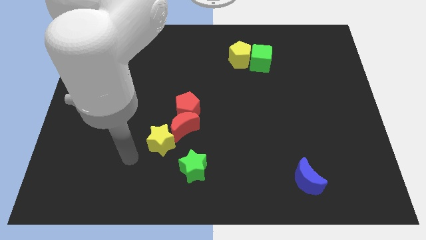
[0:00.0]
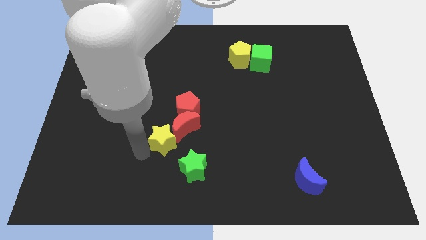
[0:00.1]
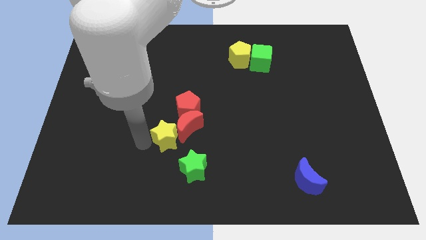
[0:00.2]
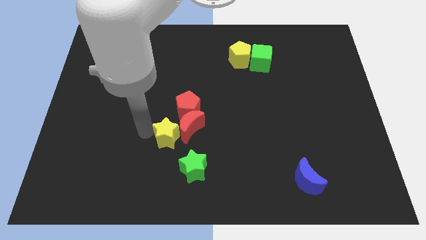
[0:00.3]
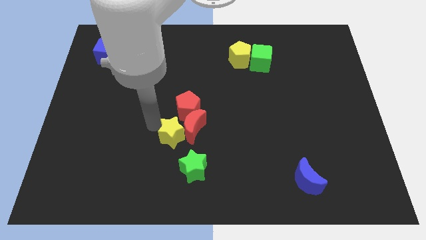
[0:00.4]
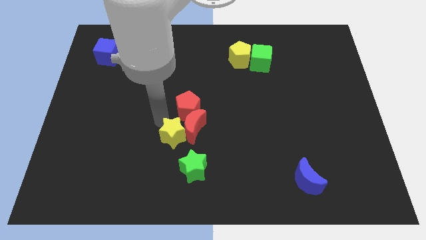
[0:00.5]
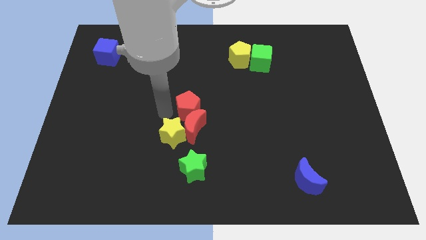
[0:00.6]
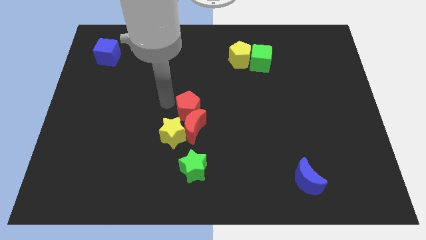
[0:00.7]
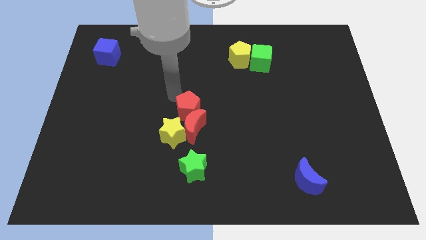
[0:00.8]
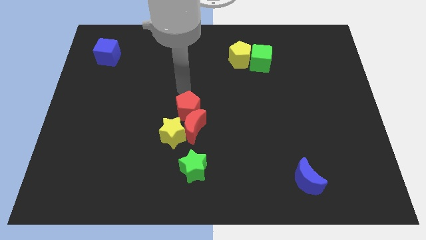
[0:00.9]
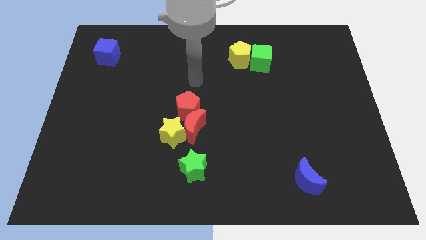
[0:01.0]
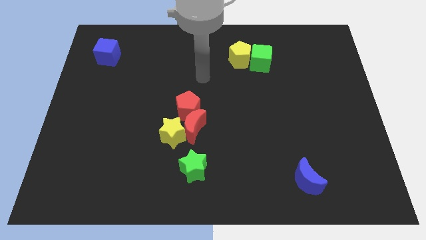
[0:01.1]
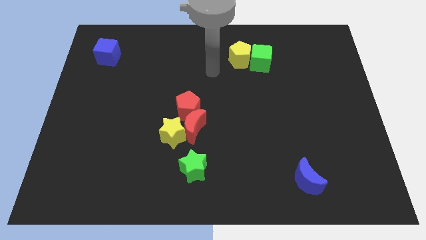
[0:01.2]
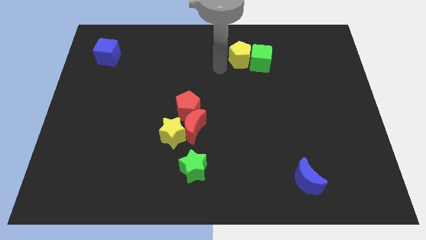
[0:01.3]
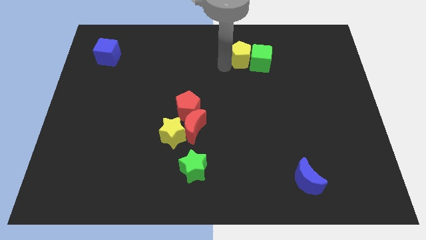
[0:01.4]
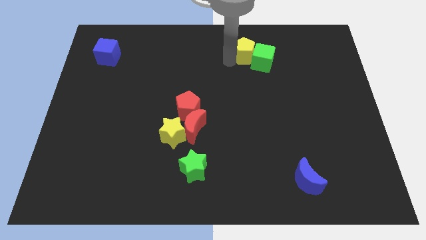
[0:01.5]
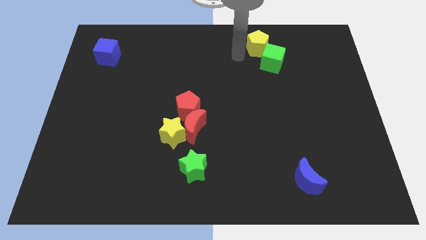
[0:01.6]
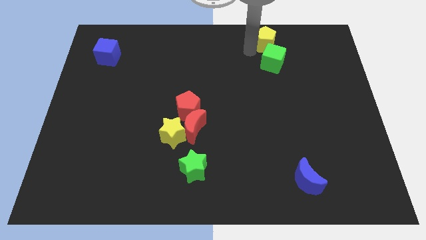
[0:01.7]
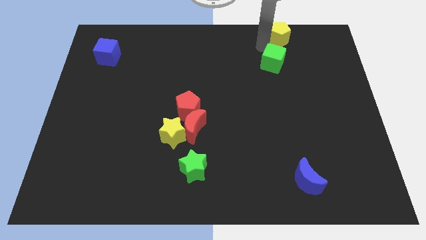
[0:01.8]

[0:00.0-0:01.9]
separate the green cube from the yellow pentagon

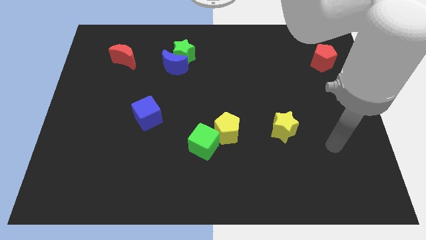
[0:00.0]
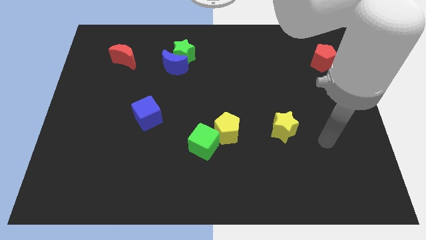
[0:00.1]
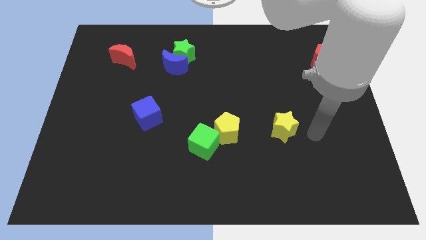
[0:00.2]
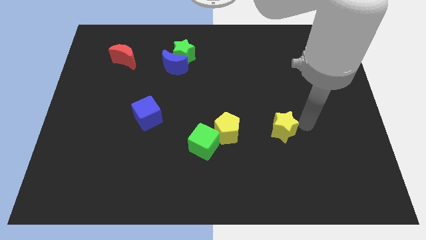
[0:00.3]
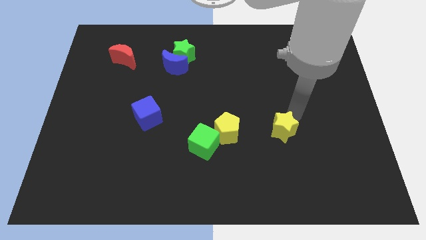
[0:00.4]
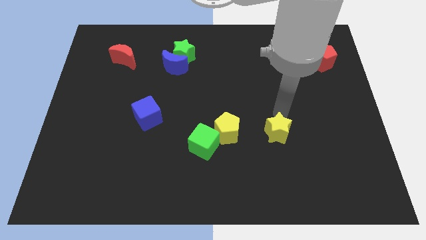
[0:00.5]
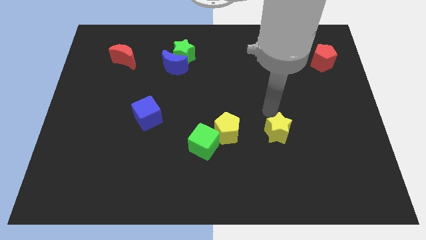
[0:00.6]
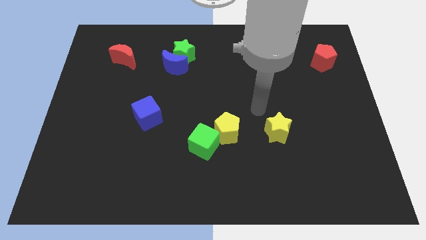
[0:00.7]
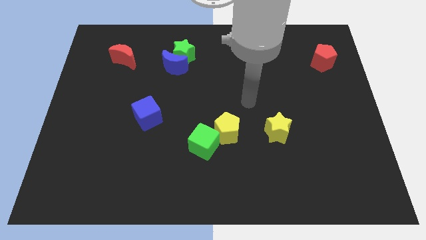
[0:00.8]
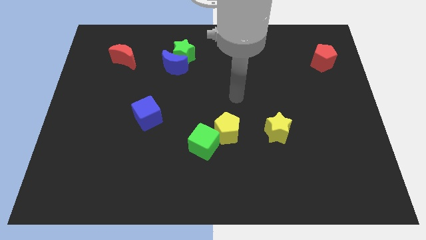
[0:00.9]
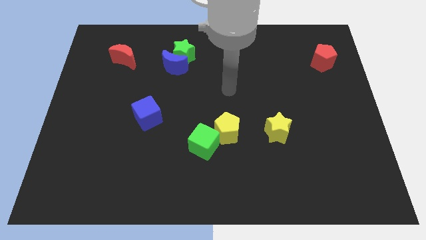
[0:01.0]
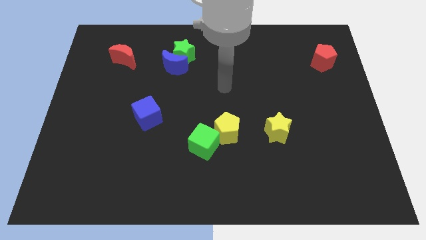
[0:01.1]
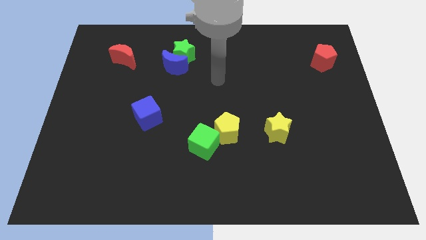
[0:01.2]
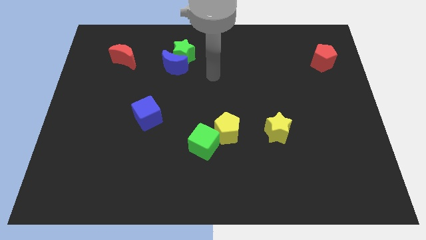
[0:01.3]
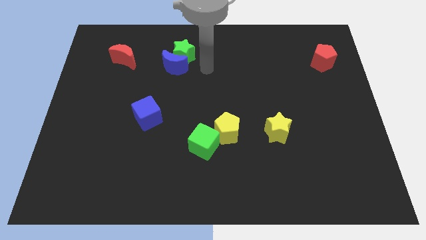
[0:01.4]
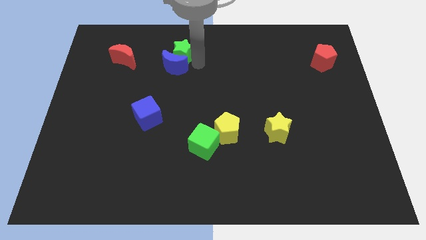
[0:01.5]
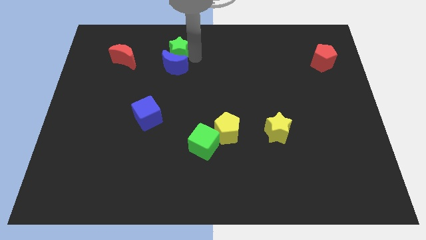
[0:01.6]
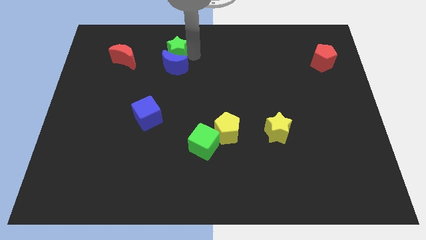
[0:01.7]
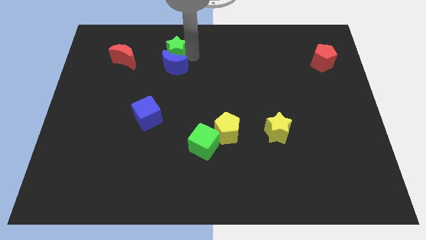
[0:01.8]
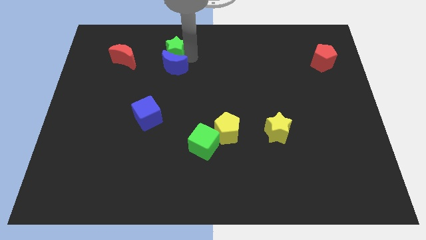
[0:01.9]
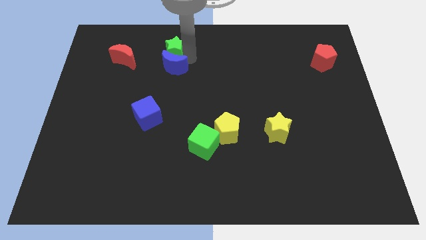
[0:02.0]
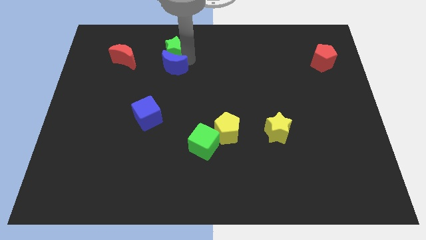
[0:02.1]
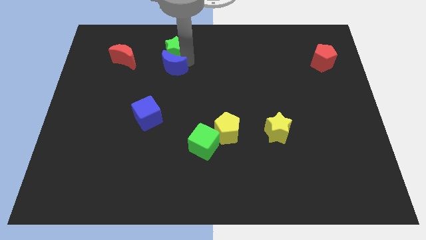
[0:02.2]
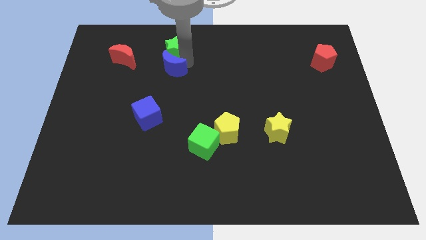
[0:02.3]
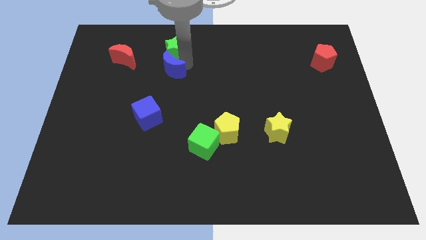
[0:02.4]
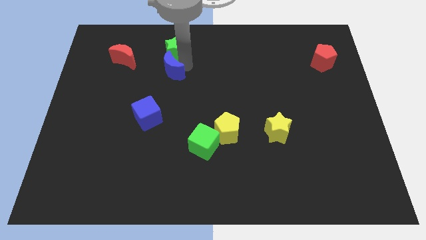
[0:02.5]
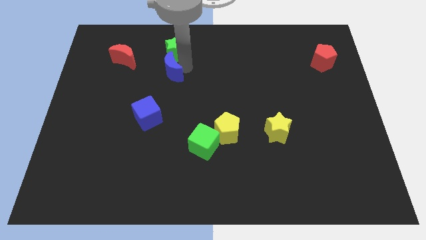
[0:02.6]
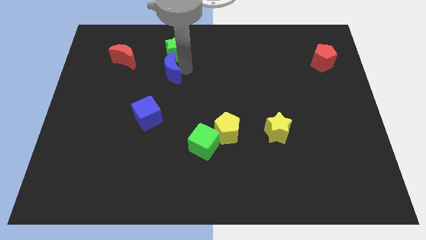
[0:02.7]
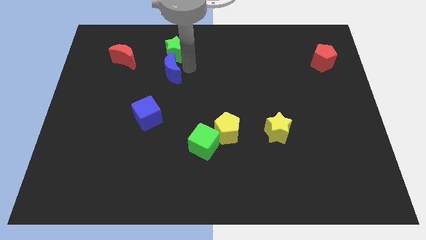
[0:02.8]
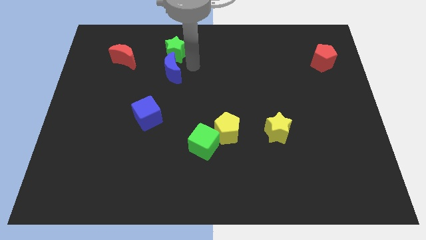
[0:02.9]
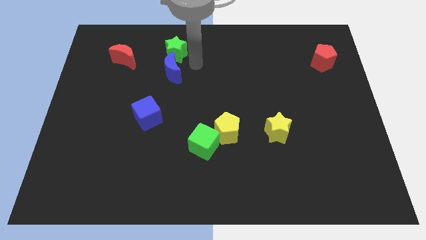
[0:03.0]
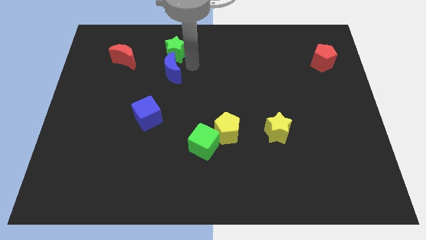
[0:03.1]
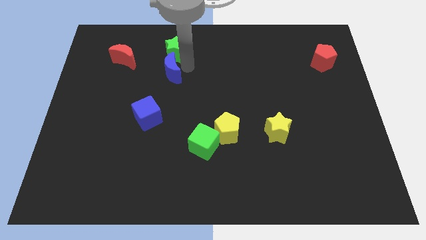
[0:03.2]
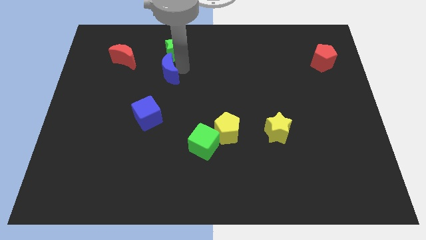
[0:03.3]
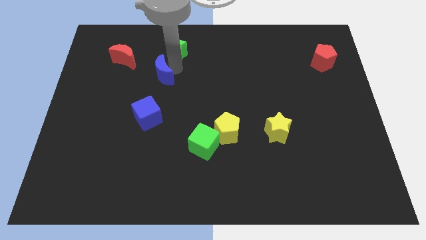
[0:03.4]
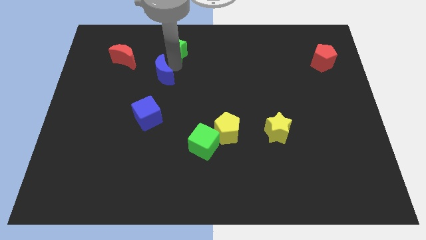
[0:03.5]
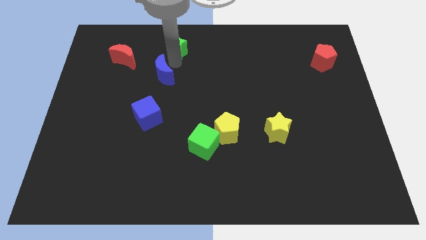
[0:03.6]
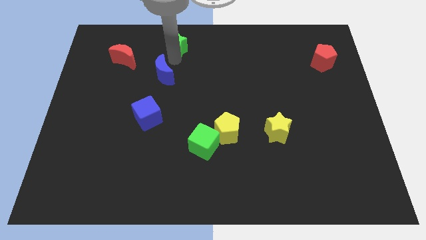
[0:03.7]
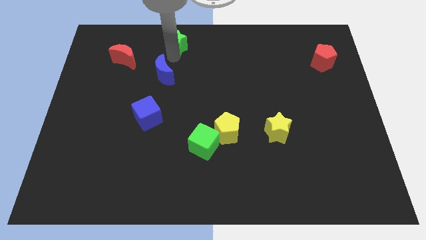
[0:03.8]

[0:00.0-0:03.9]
separate the blue moon from the green star

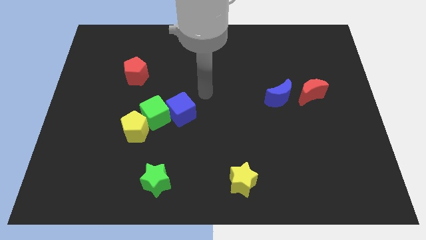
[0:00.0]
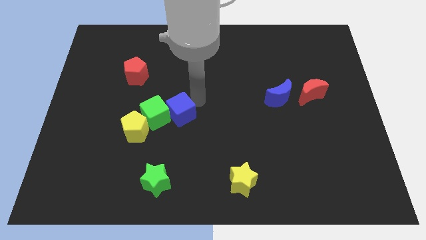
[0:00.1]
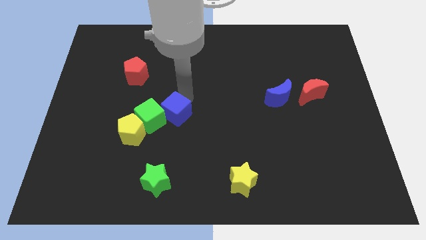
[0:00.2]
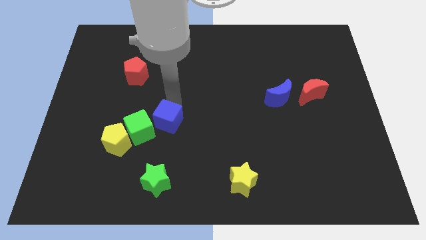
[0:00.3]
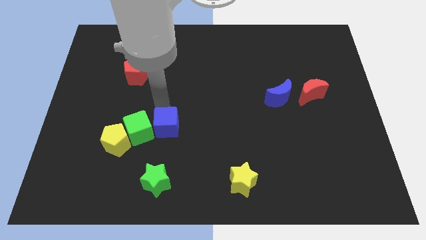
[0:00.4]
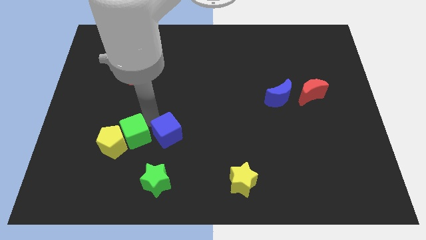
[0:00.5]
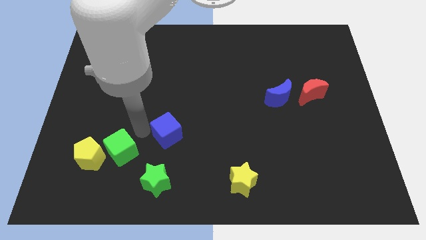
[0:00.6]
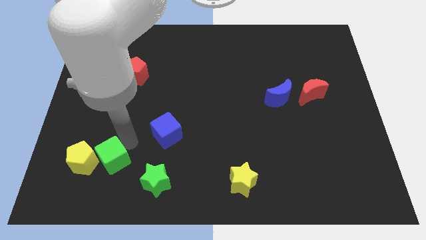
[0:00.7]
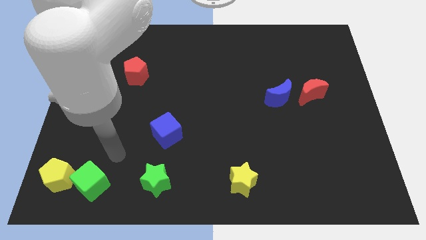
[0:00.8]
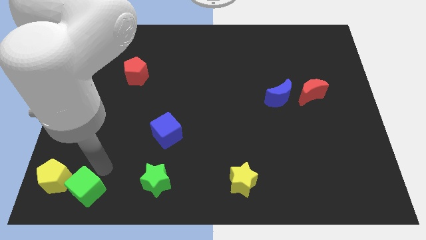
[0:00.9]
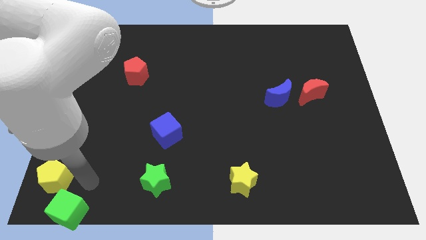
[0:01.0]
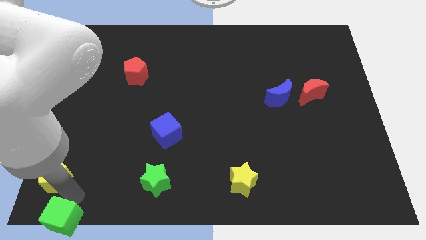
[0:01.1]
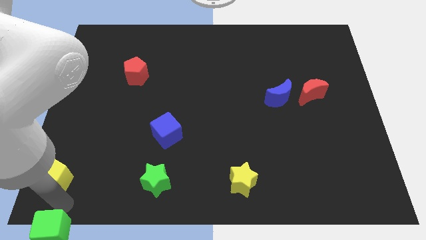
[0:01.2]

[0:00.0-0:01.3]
separate the yellow pentagon from the green cube

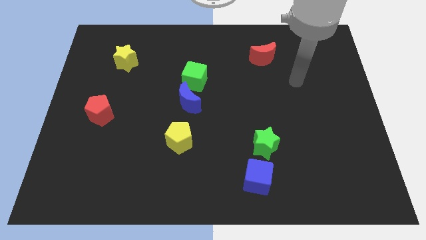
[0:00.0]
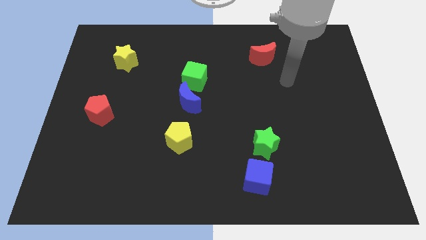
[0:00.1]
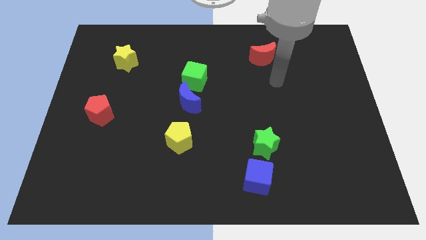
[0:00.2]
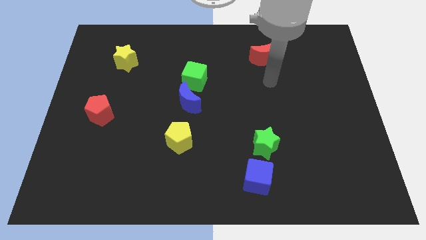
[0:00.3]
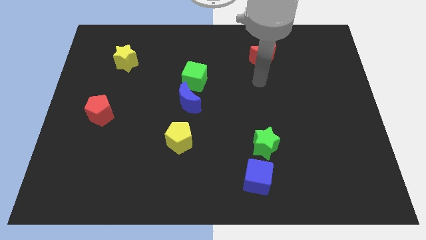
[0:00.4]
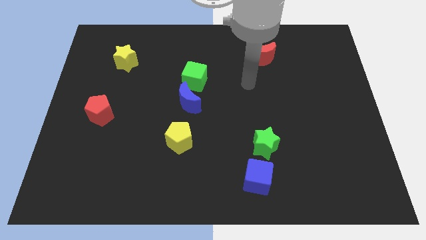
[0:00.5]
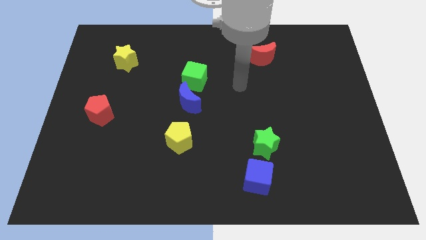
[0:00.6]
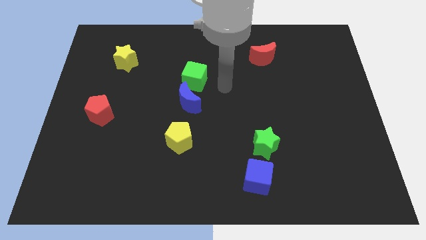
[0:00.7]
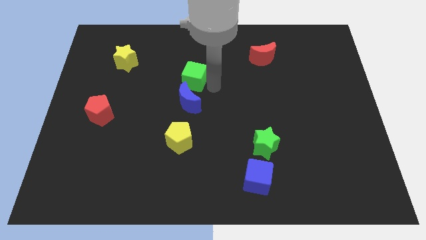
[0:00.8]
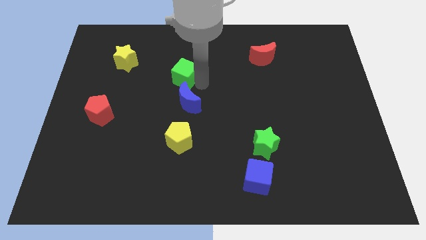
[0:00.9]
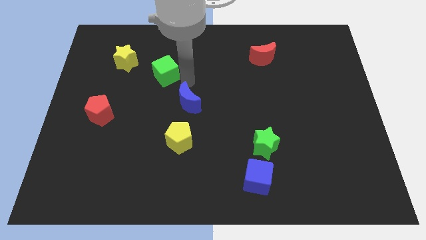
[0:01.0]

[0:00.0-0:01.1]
separate the blue moon from the green cube

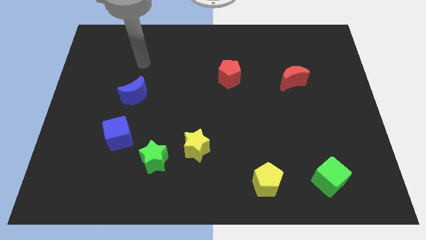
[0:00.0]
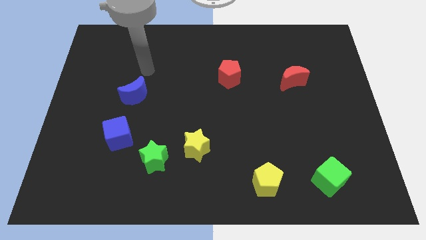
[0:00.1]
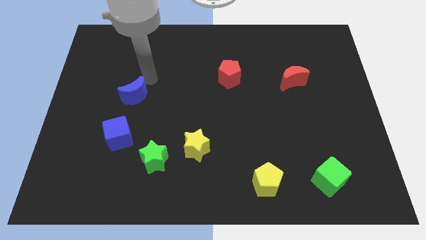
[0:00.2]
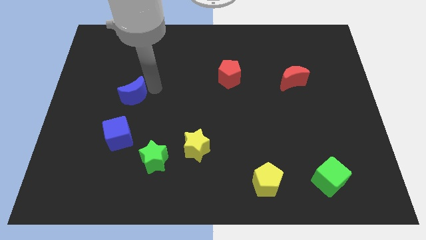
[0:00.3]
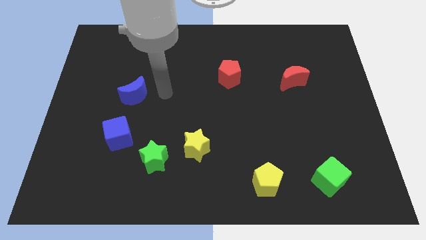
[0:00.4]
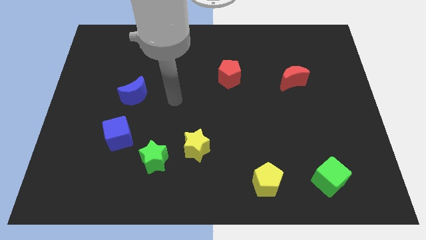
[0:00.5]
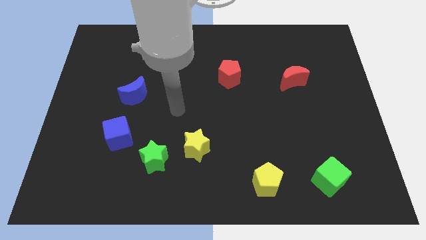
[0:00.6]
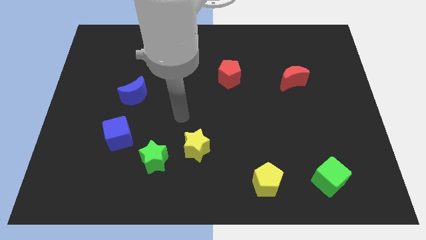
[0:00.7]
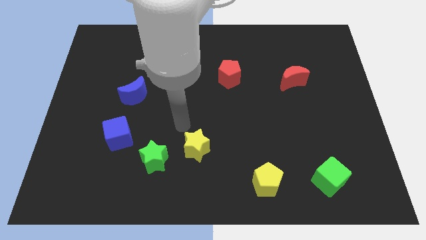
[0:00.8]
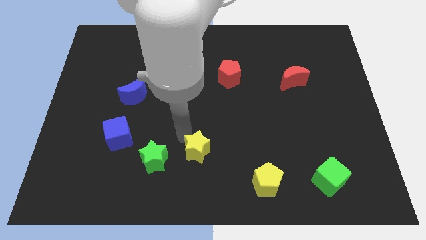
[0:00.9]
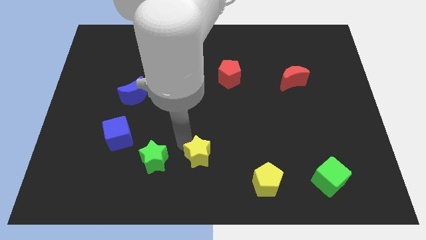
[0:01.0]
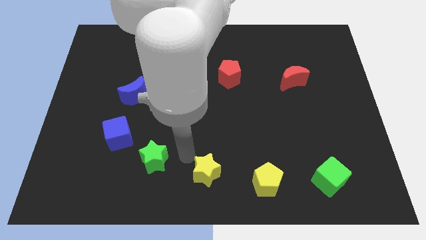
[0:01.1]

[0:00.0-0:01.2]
pull the green star apart from the yellow star
